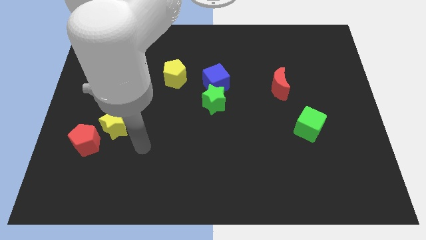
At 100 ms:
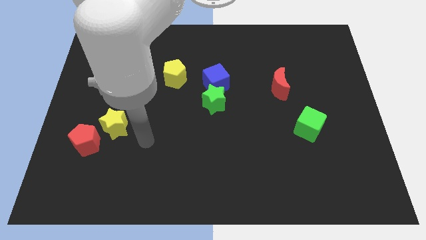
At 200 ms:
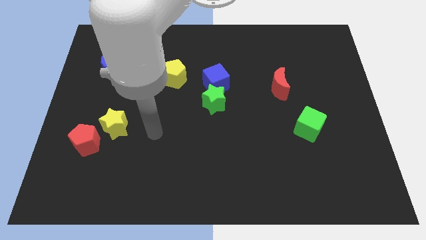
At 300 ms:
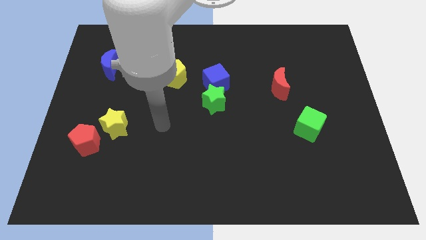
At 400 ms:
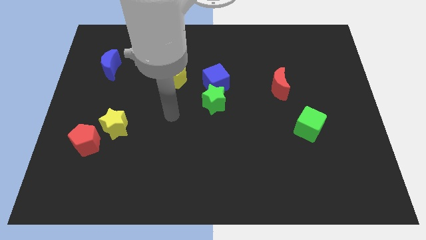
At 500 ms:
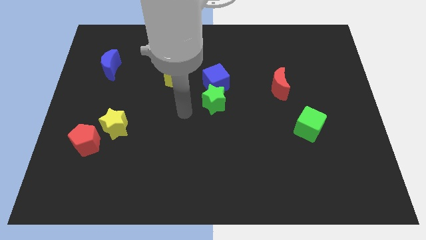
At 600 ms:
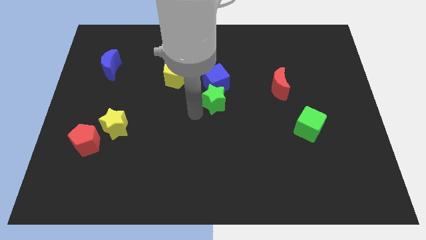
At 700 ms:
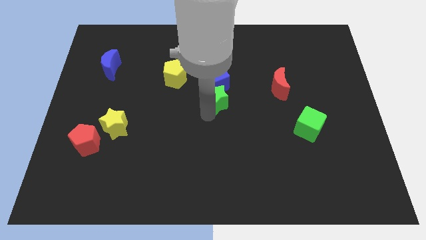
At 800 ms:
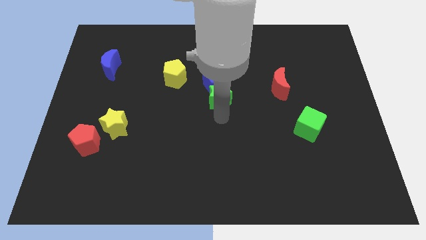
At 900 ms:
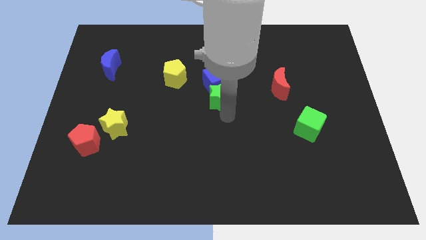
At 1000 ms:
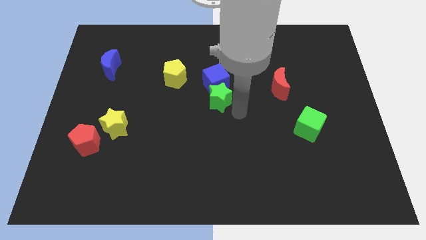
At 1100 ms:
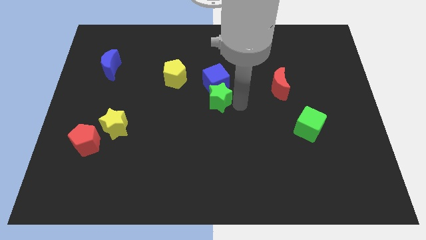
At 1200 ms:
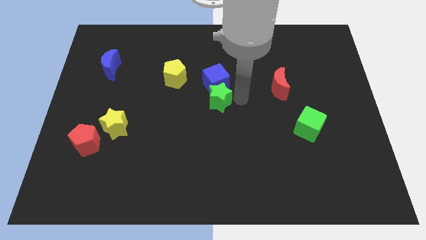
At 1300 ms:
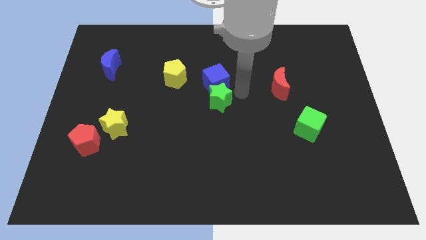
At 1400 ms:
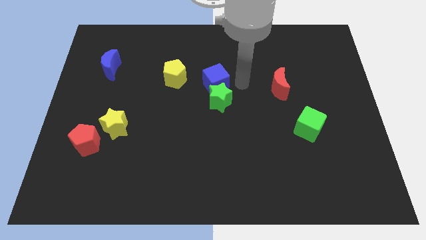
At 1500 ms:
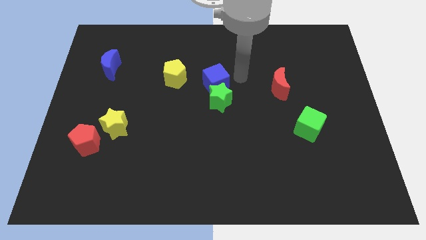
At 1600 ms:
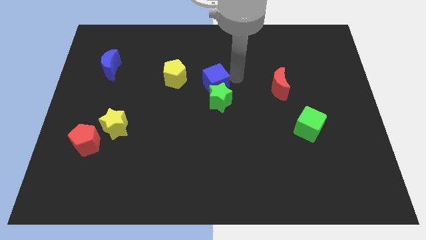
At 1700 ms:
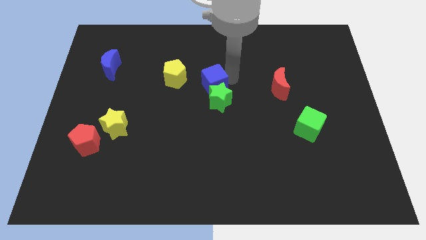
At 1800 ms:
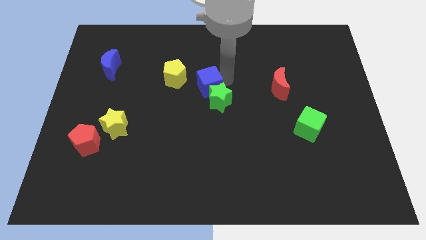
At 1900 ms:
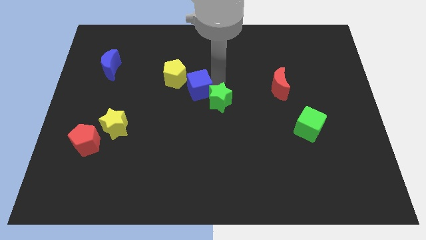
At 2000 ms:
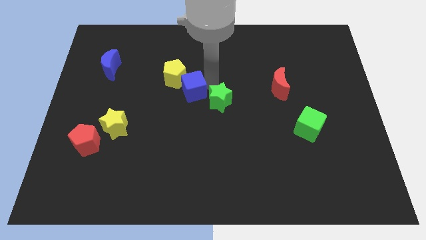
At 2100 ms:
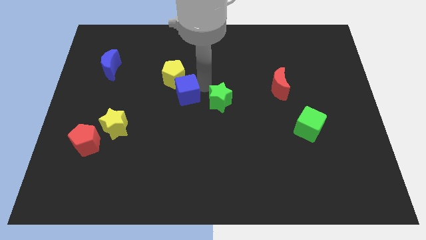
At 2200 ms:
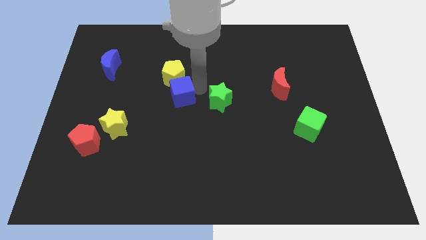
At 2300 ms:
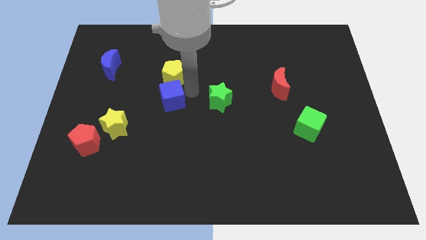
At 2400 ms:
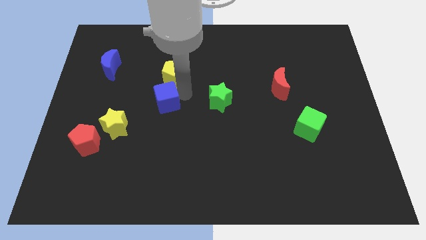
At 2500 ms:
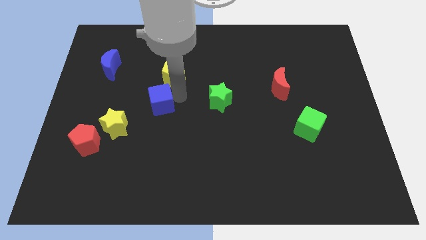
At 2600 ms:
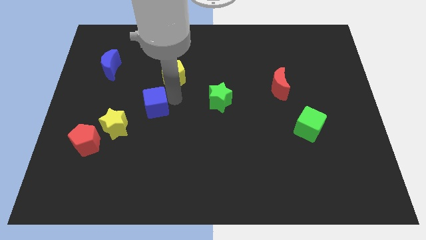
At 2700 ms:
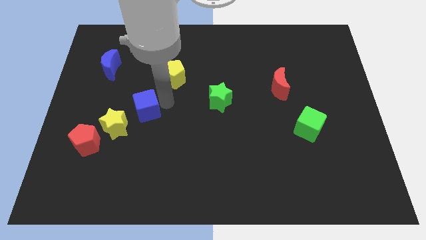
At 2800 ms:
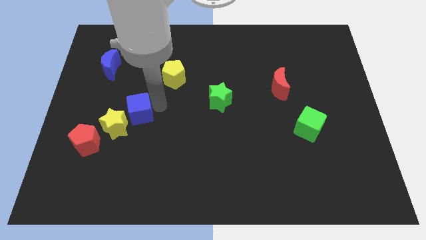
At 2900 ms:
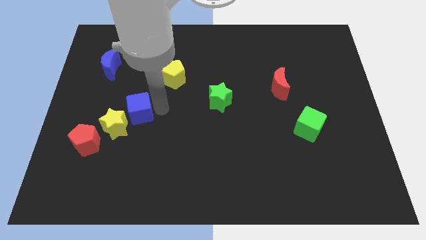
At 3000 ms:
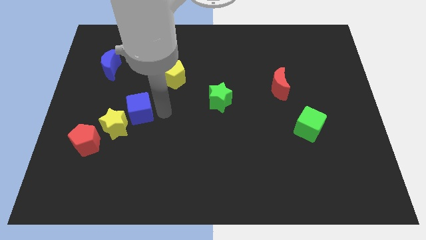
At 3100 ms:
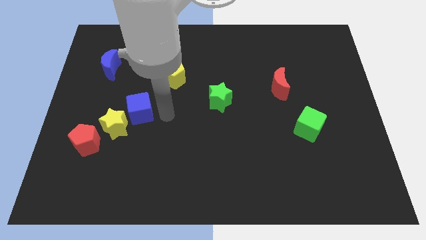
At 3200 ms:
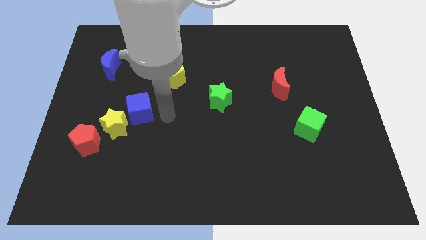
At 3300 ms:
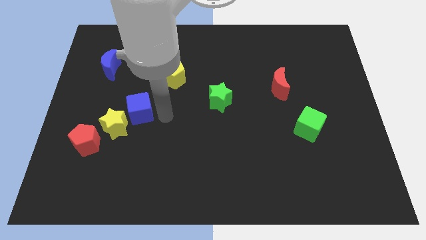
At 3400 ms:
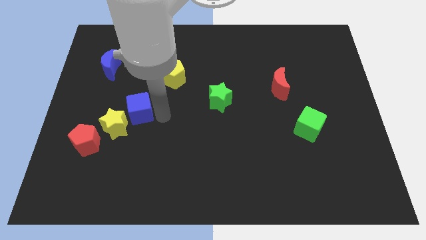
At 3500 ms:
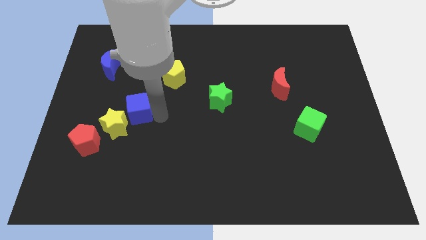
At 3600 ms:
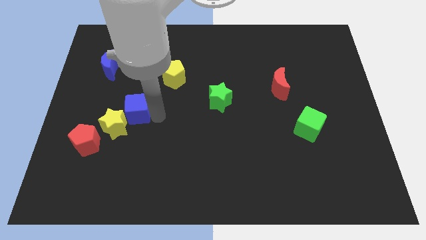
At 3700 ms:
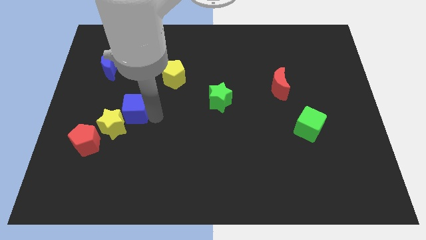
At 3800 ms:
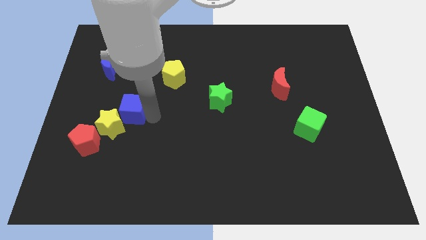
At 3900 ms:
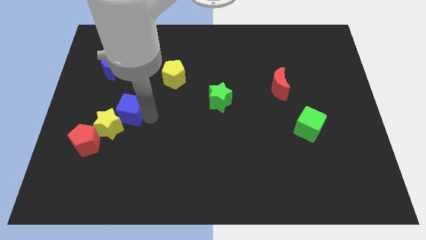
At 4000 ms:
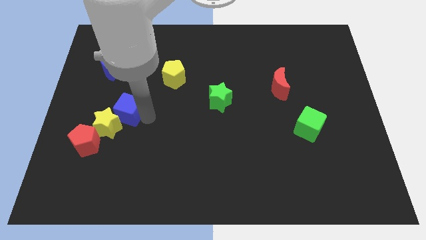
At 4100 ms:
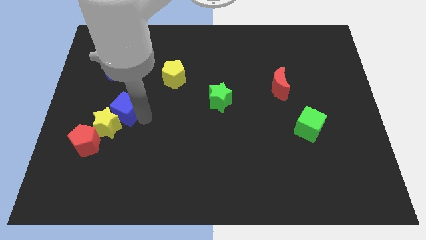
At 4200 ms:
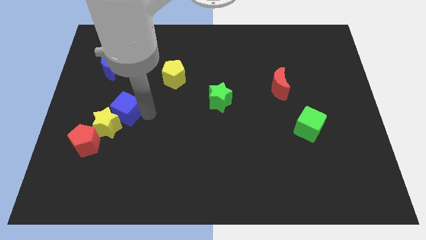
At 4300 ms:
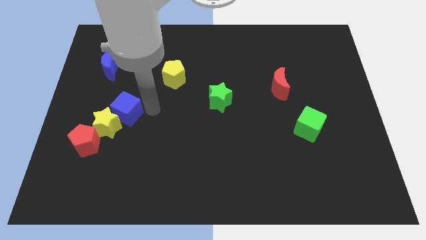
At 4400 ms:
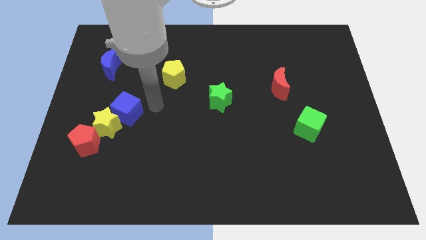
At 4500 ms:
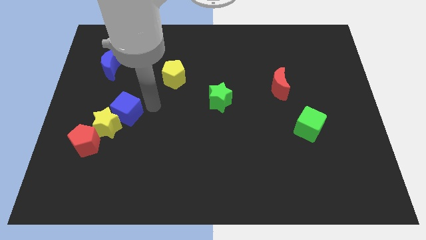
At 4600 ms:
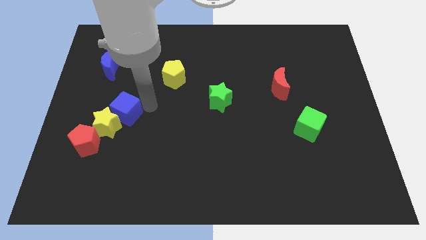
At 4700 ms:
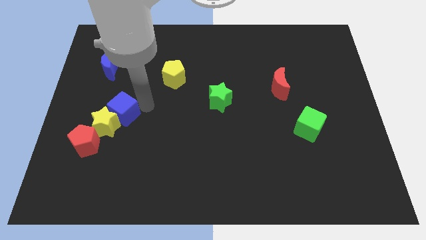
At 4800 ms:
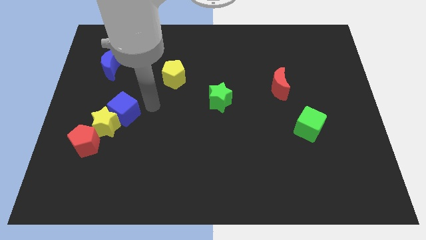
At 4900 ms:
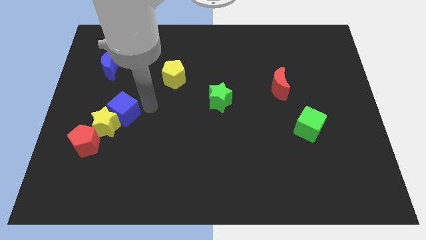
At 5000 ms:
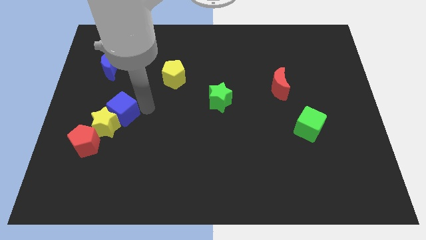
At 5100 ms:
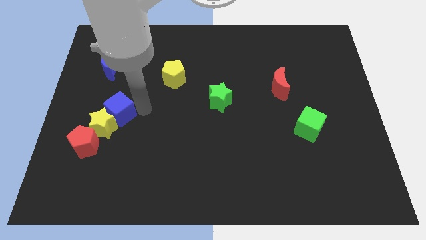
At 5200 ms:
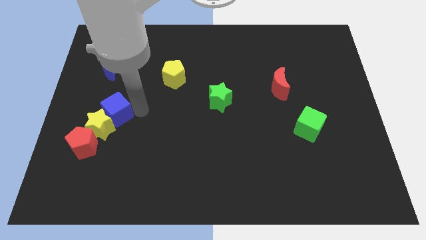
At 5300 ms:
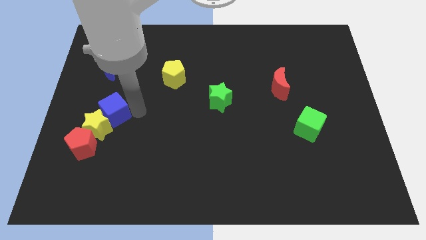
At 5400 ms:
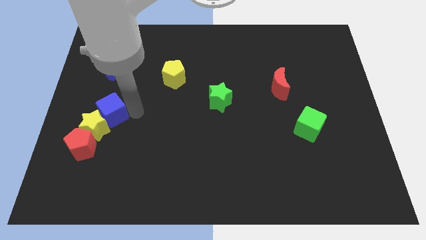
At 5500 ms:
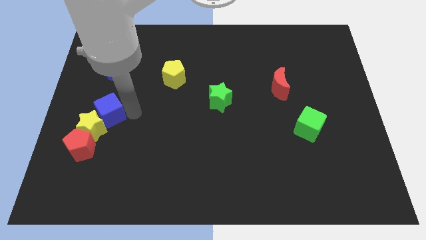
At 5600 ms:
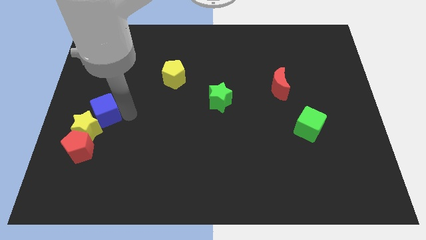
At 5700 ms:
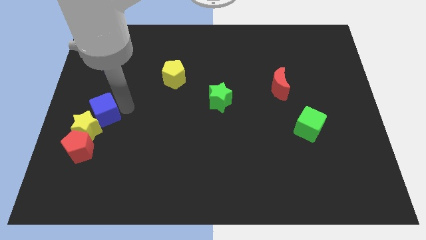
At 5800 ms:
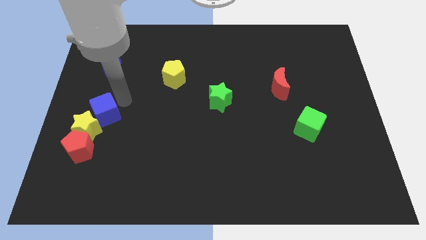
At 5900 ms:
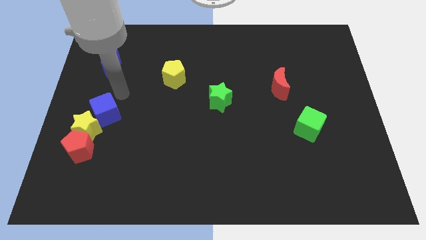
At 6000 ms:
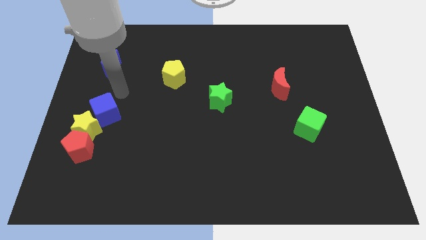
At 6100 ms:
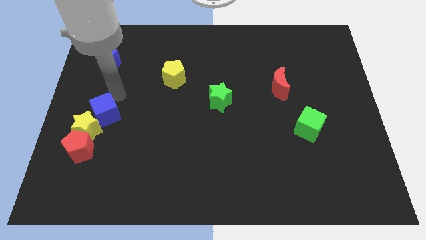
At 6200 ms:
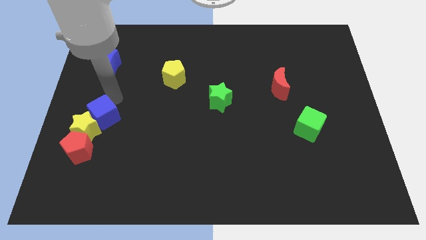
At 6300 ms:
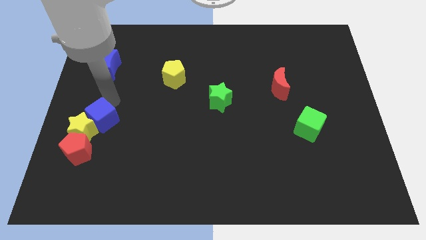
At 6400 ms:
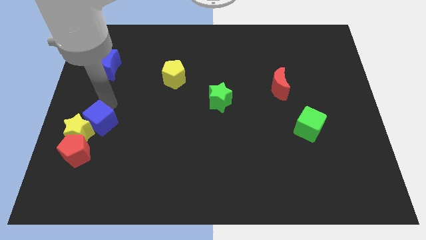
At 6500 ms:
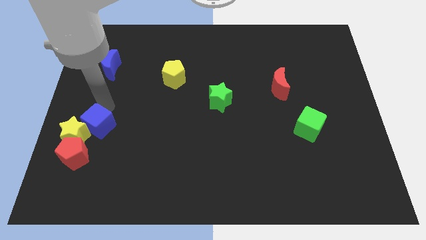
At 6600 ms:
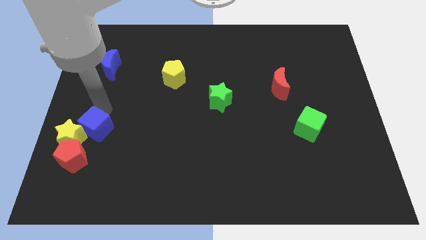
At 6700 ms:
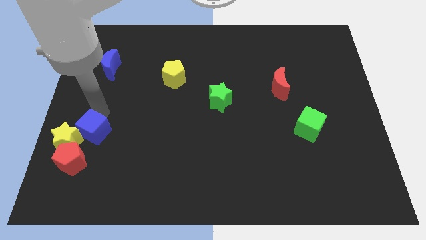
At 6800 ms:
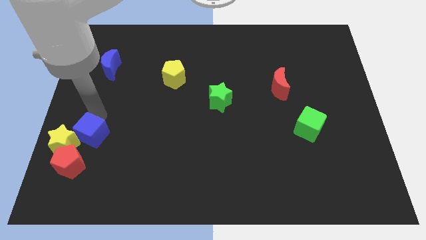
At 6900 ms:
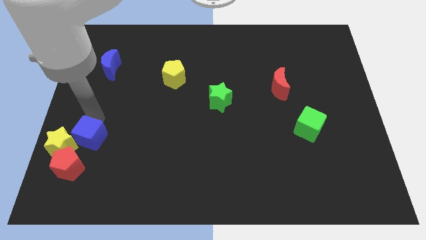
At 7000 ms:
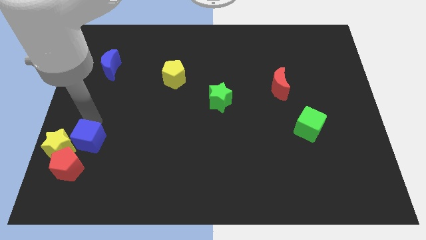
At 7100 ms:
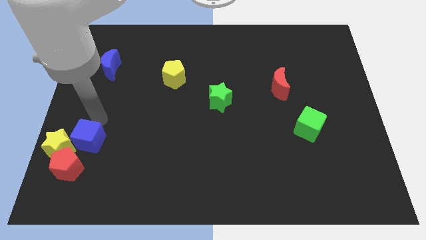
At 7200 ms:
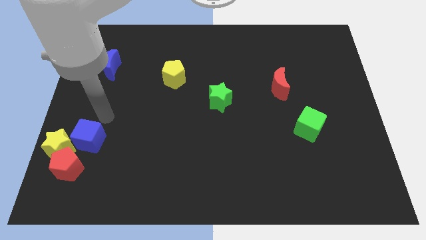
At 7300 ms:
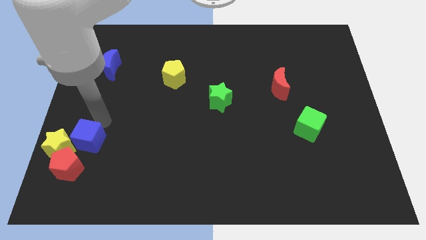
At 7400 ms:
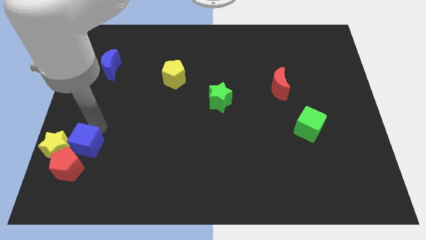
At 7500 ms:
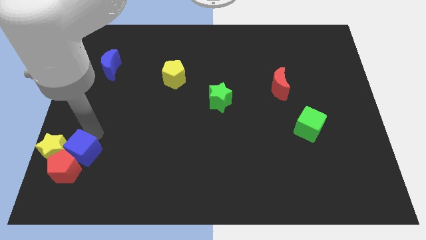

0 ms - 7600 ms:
put the blue cube to the red pentagon
